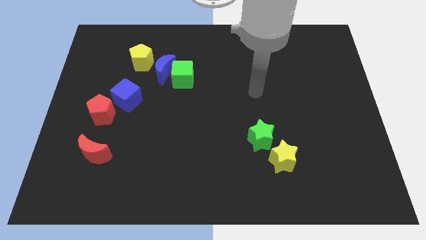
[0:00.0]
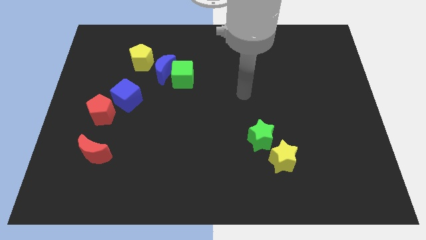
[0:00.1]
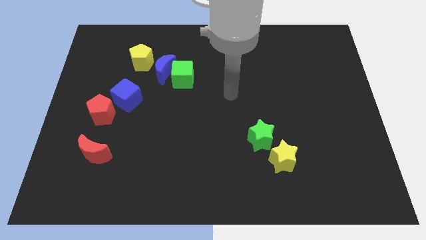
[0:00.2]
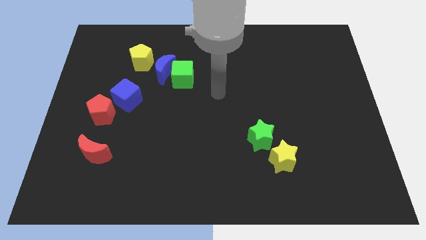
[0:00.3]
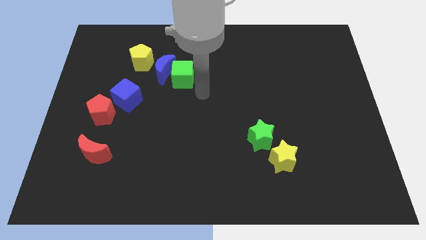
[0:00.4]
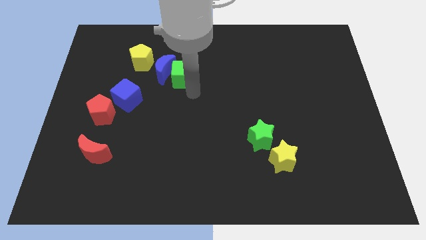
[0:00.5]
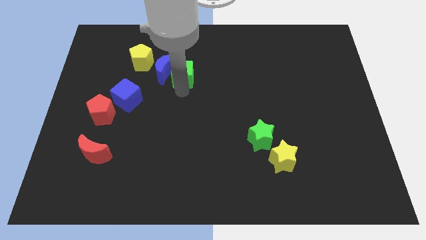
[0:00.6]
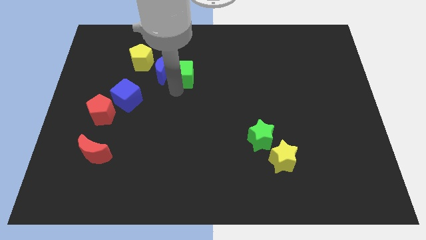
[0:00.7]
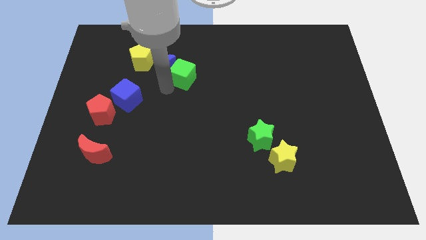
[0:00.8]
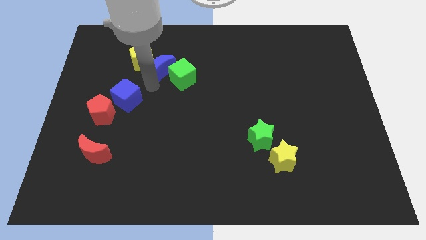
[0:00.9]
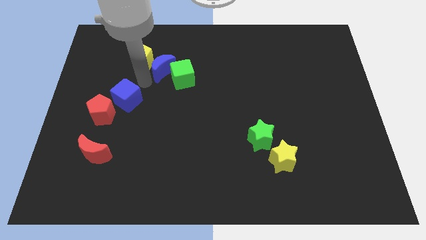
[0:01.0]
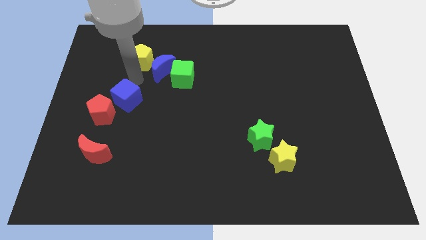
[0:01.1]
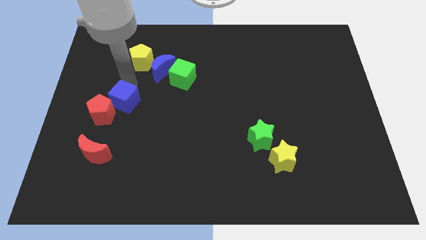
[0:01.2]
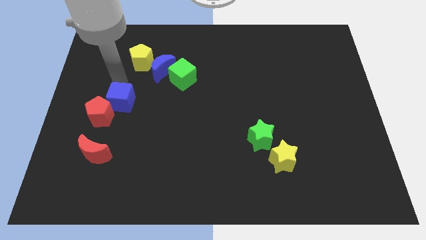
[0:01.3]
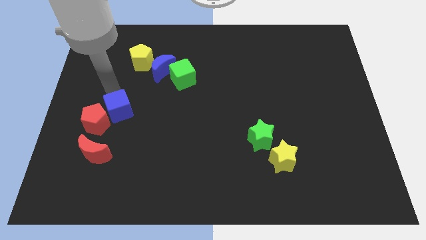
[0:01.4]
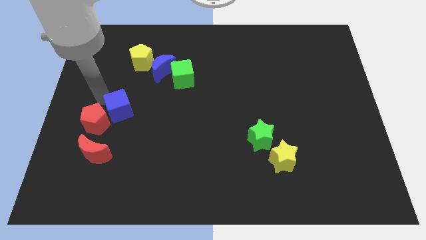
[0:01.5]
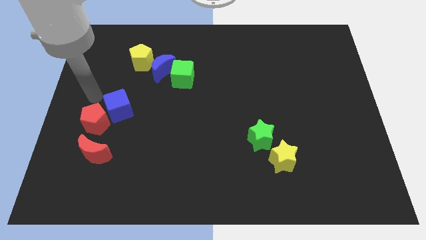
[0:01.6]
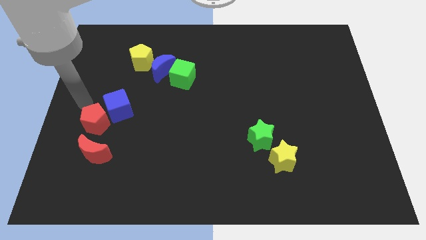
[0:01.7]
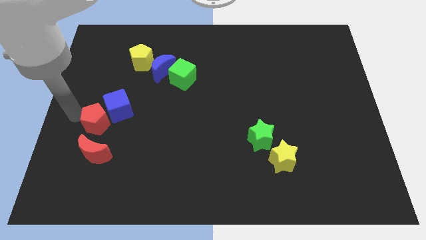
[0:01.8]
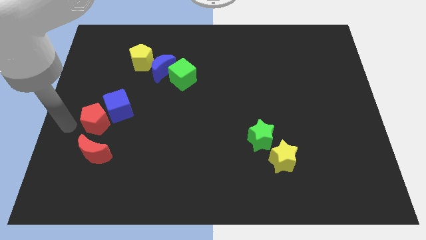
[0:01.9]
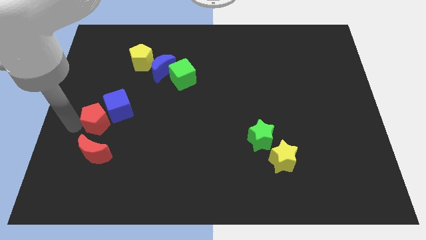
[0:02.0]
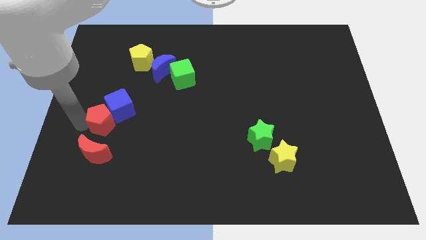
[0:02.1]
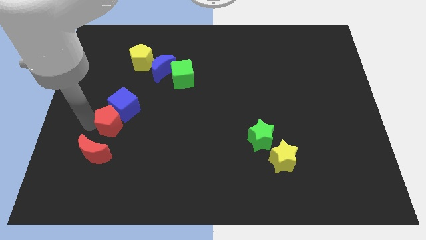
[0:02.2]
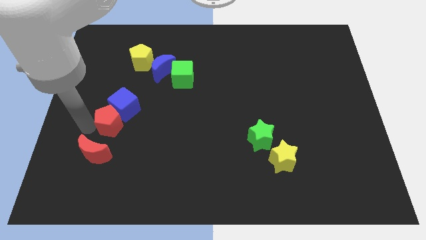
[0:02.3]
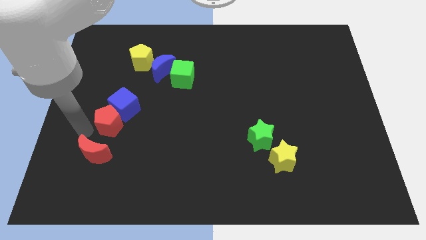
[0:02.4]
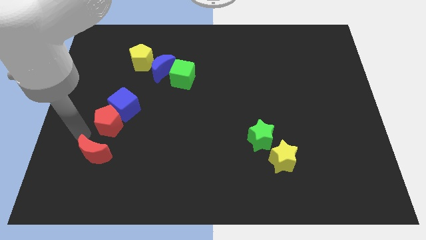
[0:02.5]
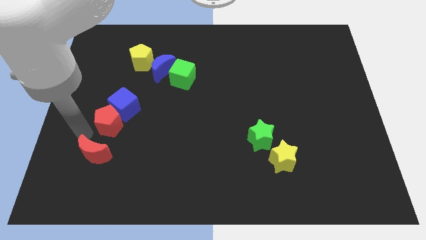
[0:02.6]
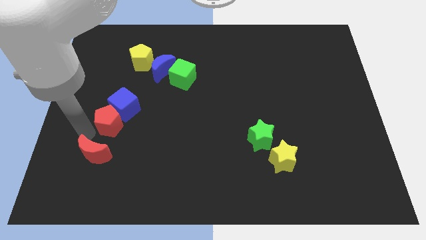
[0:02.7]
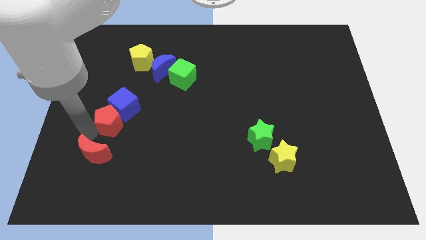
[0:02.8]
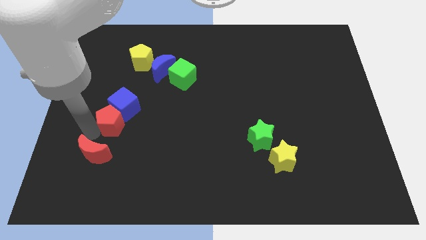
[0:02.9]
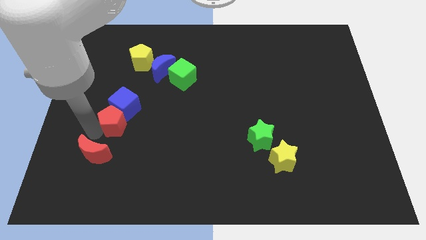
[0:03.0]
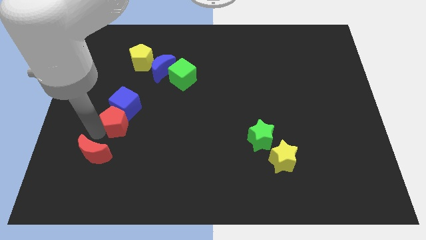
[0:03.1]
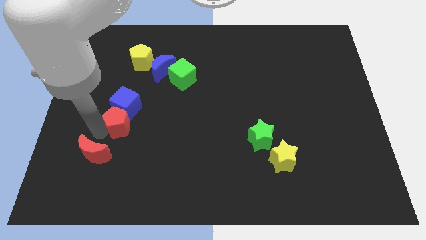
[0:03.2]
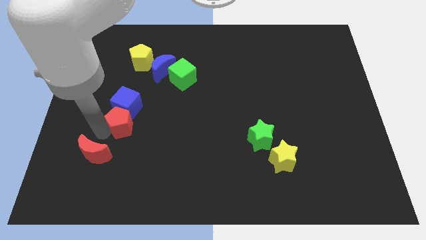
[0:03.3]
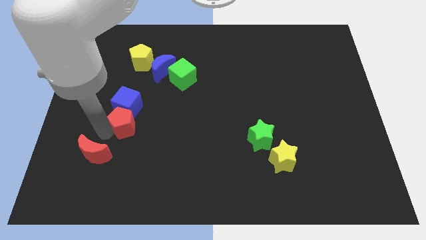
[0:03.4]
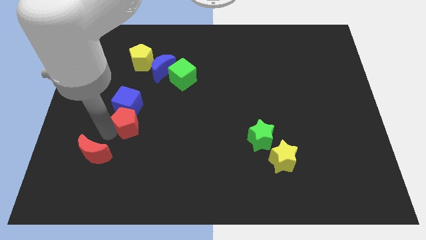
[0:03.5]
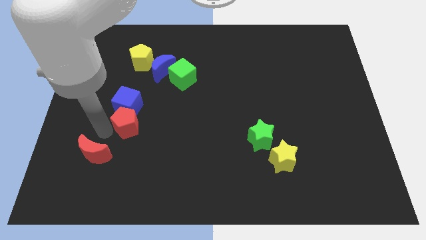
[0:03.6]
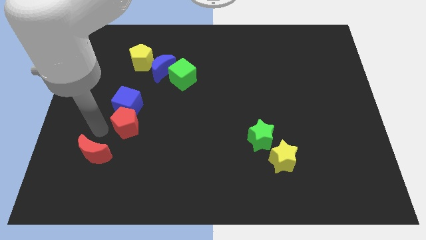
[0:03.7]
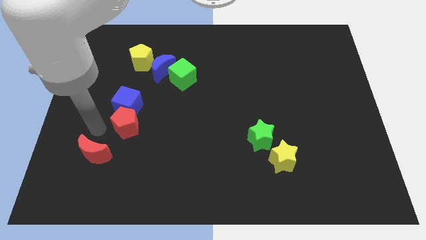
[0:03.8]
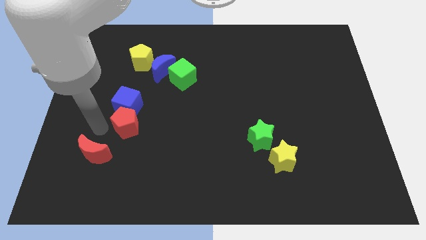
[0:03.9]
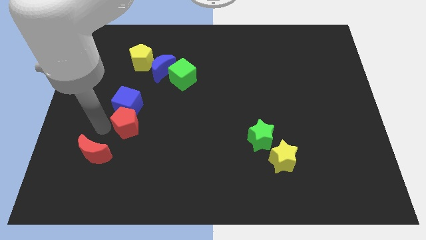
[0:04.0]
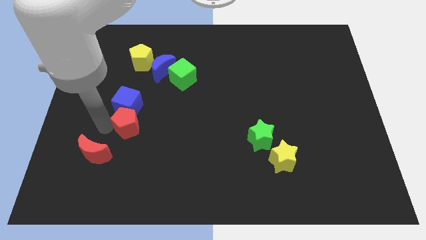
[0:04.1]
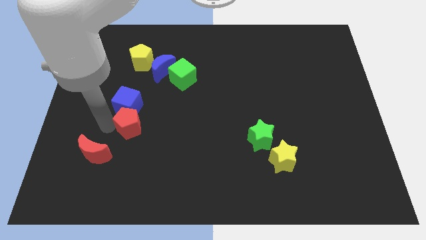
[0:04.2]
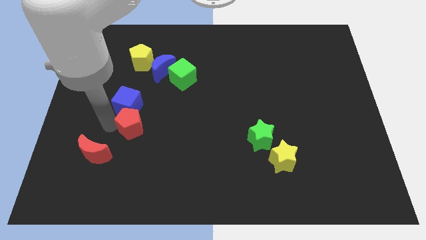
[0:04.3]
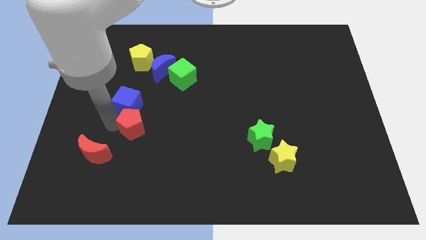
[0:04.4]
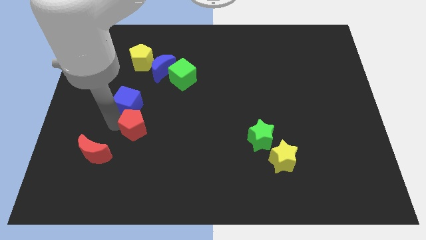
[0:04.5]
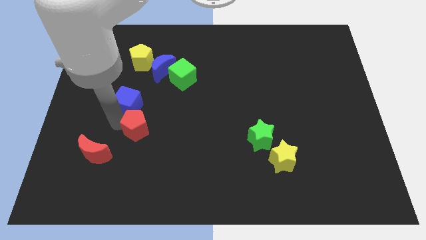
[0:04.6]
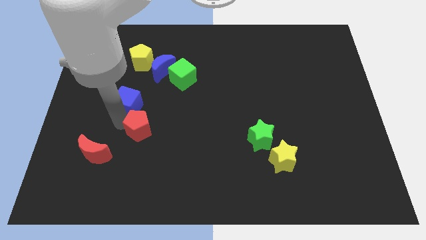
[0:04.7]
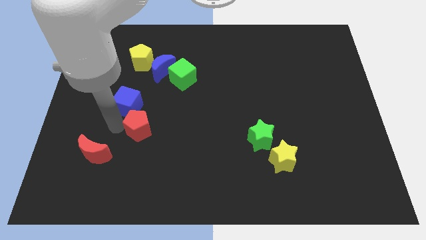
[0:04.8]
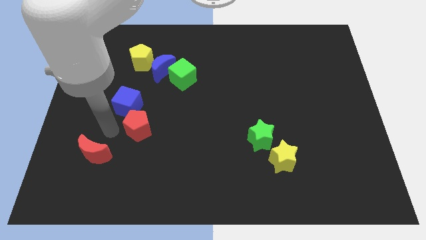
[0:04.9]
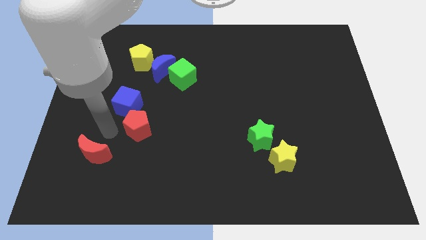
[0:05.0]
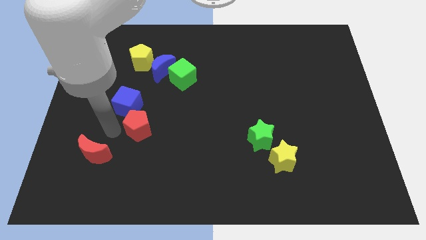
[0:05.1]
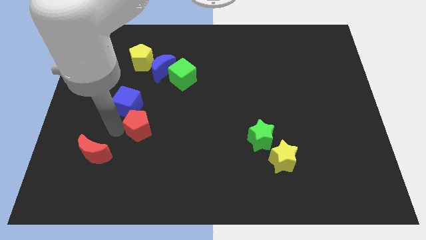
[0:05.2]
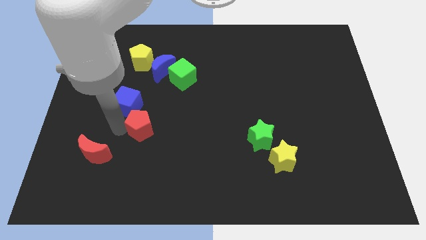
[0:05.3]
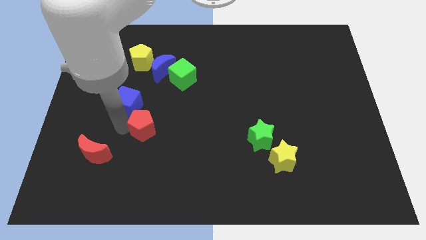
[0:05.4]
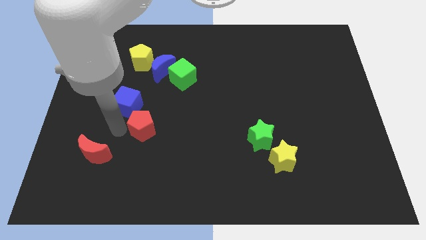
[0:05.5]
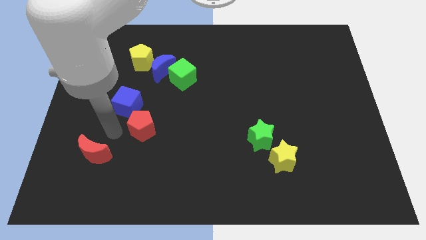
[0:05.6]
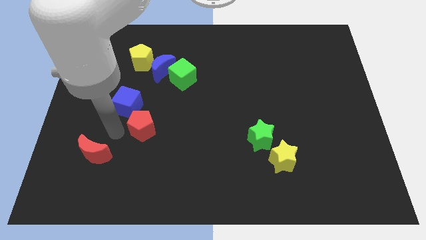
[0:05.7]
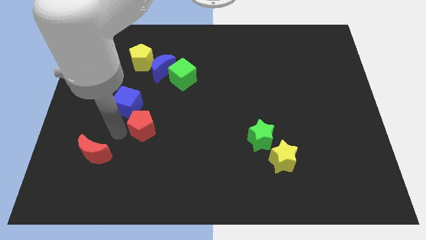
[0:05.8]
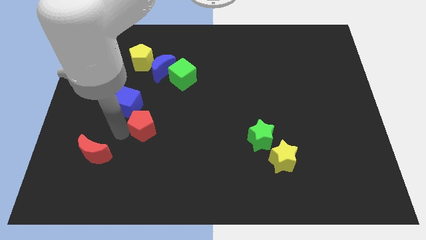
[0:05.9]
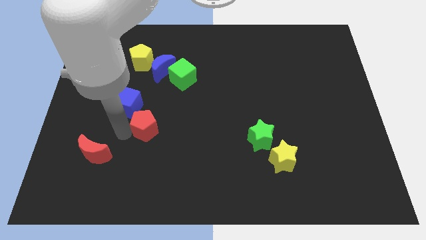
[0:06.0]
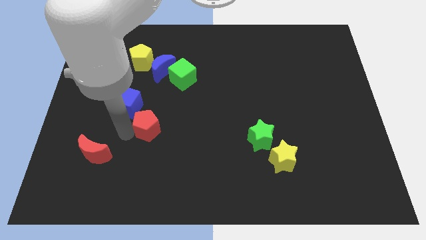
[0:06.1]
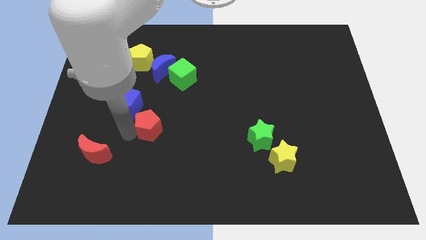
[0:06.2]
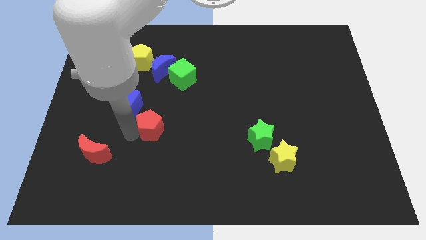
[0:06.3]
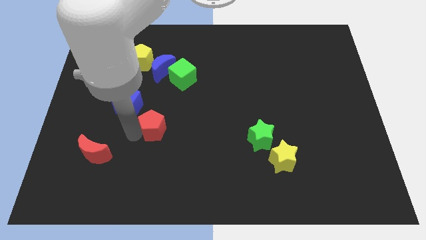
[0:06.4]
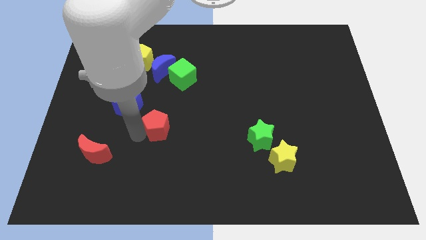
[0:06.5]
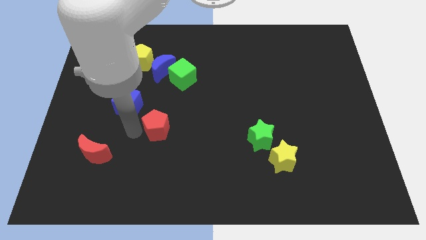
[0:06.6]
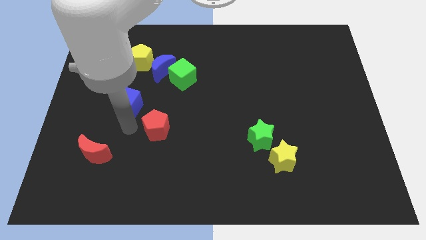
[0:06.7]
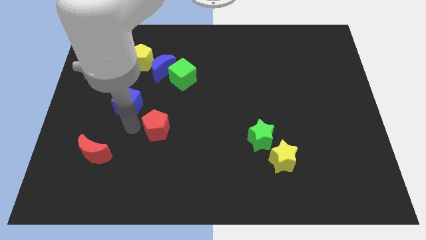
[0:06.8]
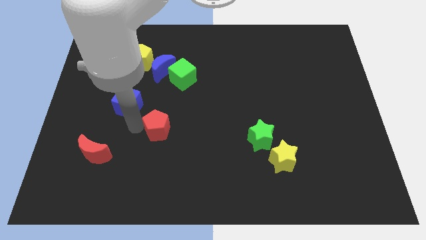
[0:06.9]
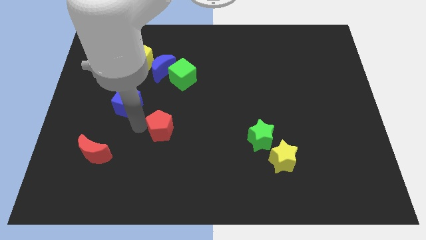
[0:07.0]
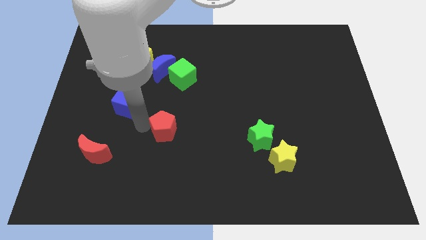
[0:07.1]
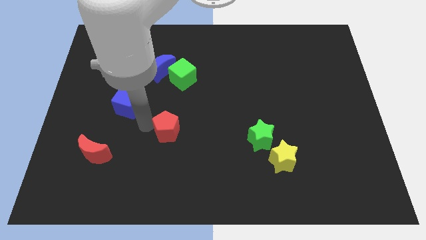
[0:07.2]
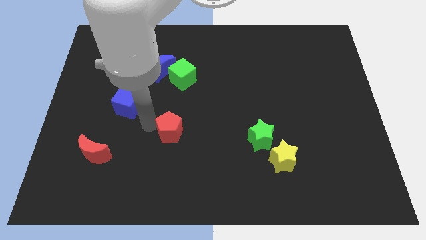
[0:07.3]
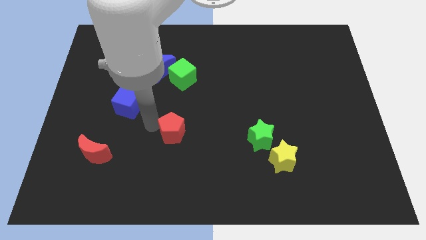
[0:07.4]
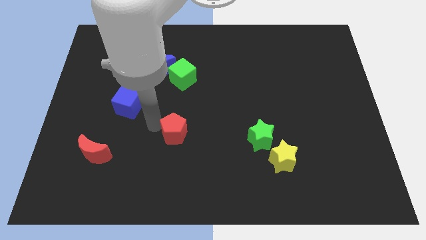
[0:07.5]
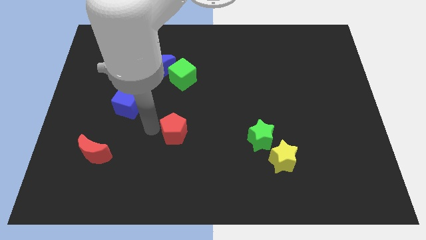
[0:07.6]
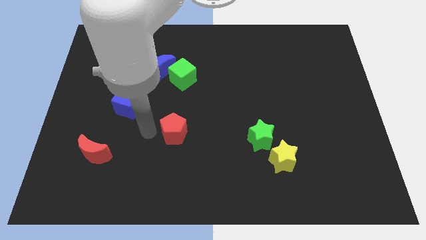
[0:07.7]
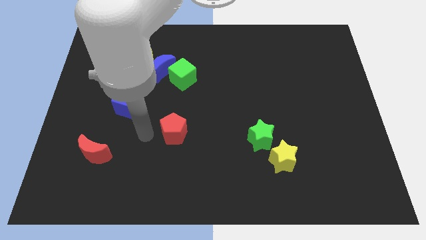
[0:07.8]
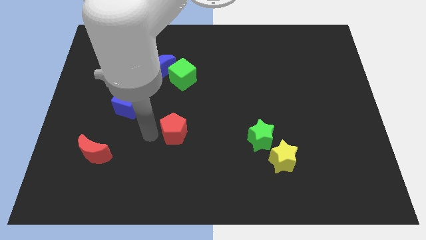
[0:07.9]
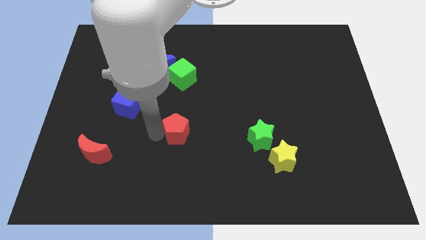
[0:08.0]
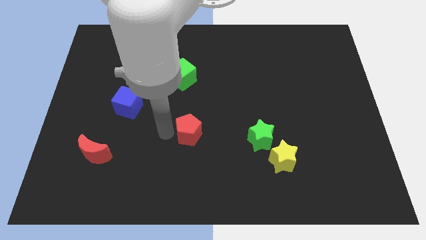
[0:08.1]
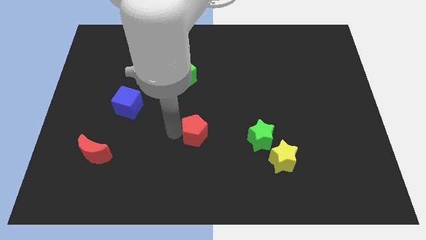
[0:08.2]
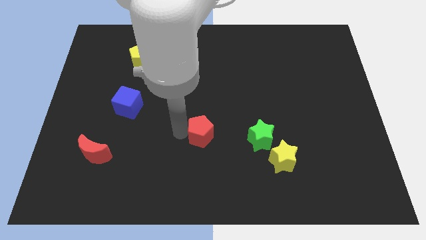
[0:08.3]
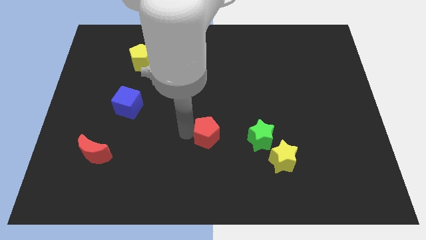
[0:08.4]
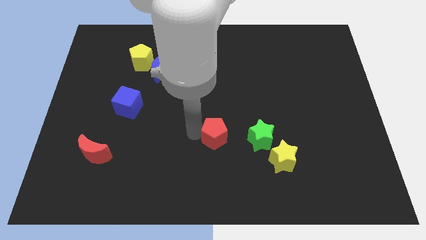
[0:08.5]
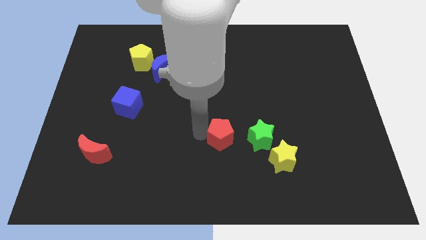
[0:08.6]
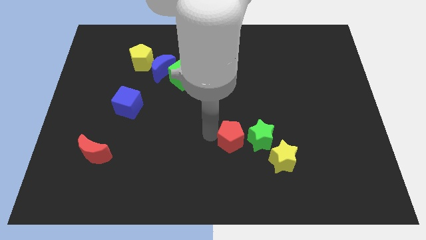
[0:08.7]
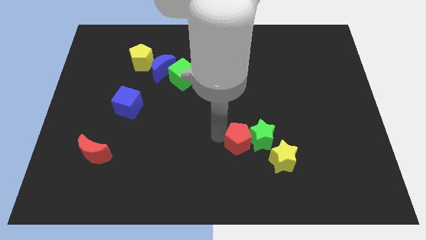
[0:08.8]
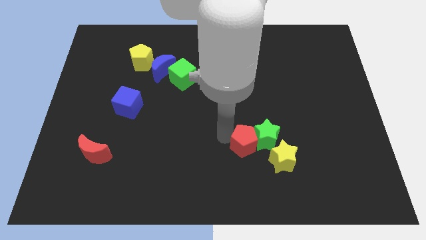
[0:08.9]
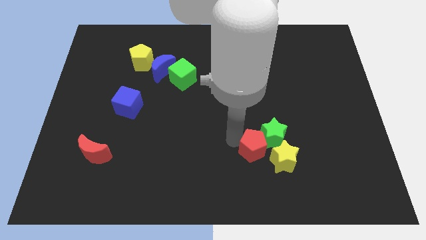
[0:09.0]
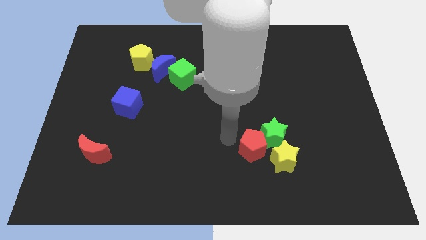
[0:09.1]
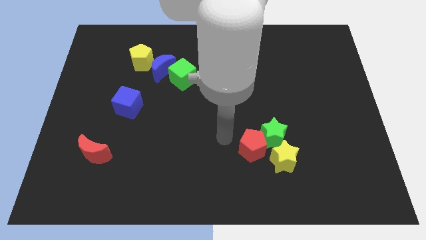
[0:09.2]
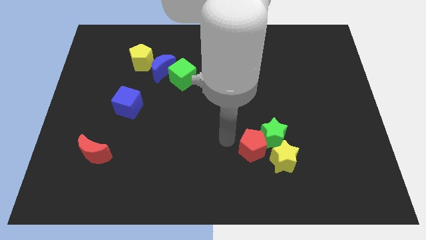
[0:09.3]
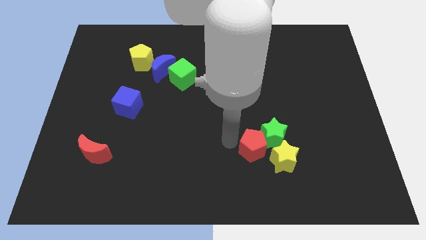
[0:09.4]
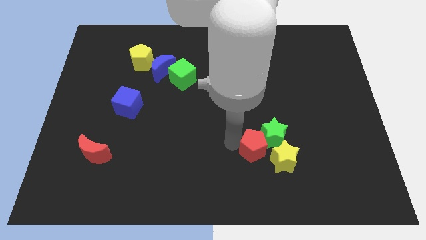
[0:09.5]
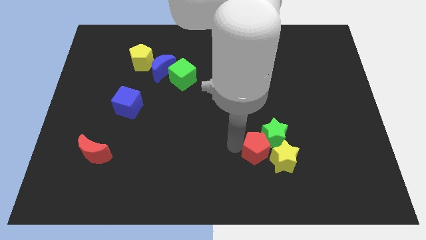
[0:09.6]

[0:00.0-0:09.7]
push the red pentagon close to the yellow star
